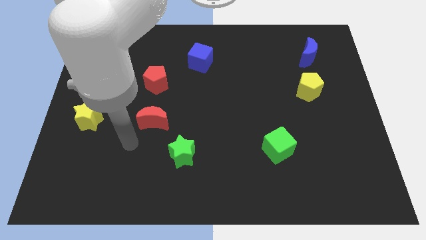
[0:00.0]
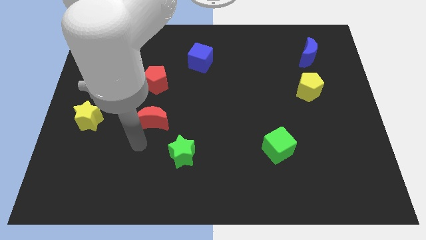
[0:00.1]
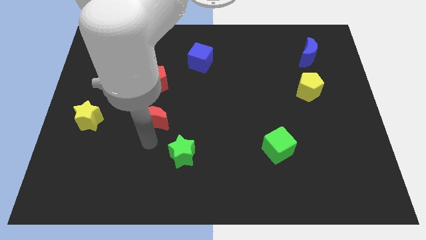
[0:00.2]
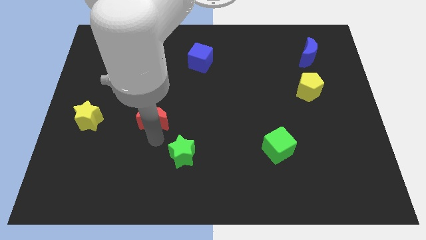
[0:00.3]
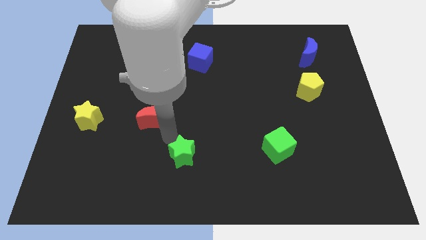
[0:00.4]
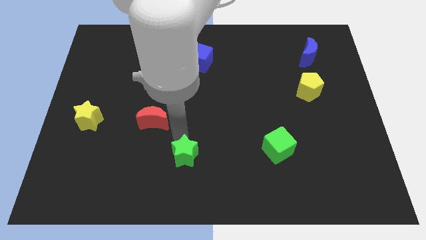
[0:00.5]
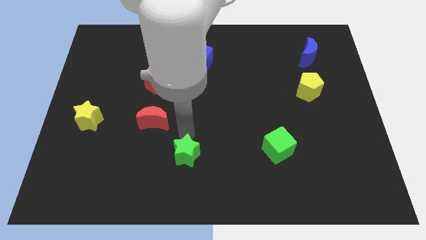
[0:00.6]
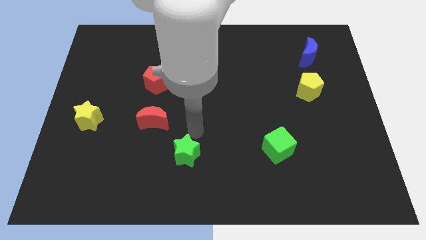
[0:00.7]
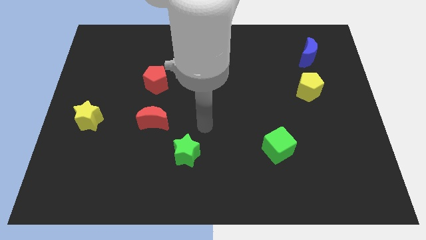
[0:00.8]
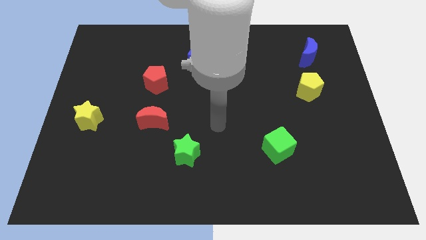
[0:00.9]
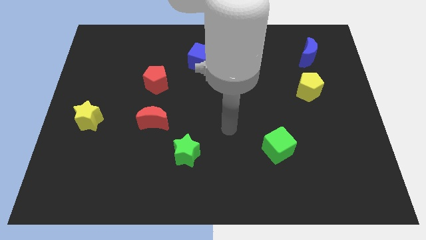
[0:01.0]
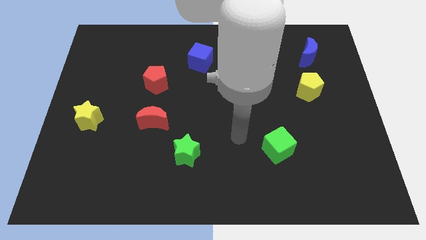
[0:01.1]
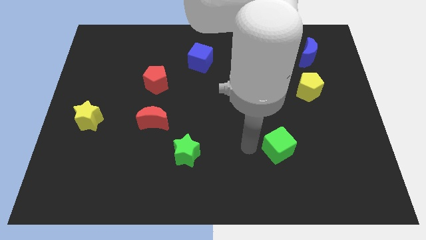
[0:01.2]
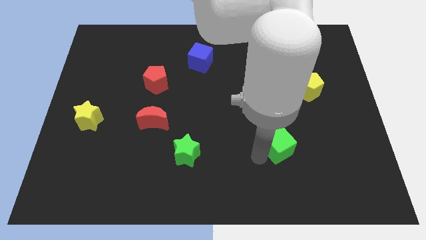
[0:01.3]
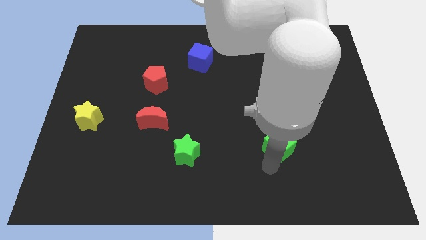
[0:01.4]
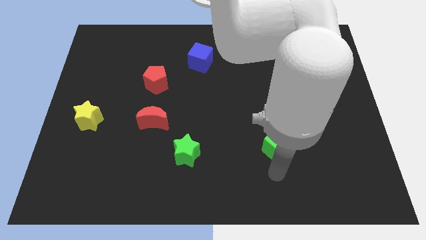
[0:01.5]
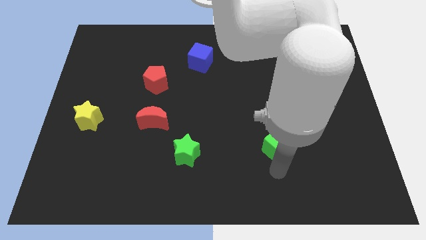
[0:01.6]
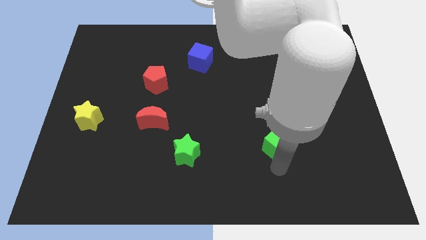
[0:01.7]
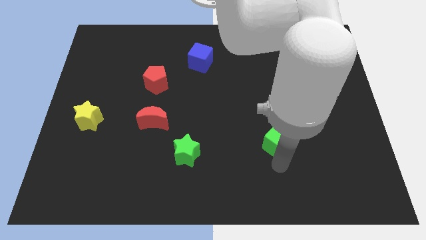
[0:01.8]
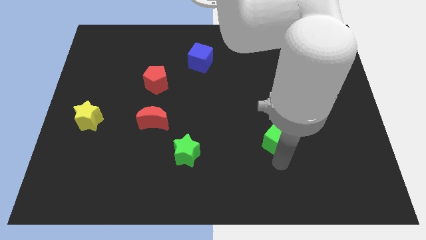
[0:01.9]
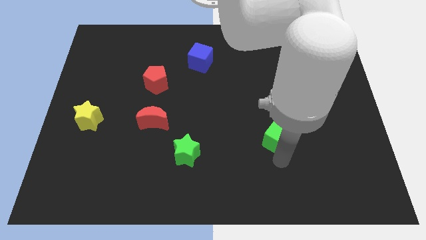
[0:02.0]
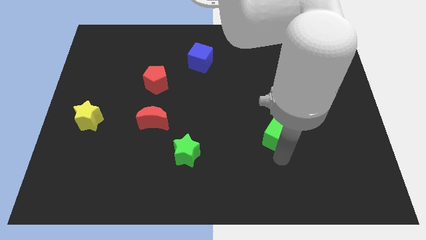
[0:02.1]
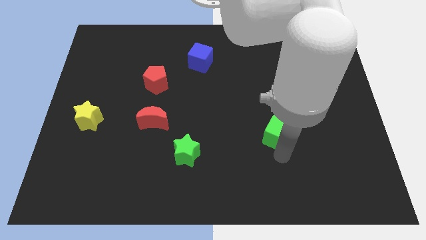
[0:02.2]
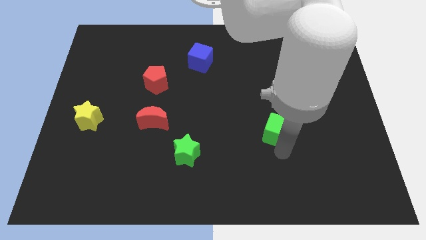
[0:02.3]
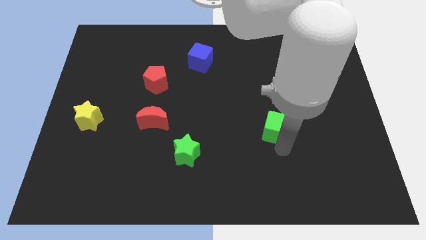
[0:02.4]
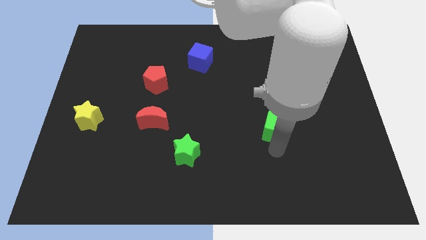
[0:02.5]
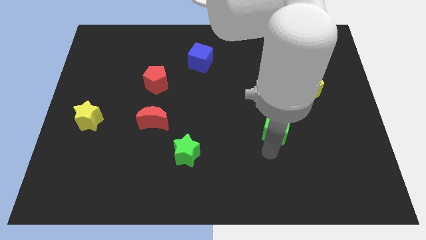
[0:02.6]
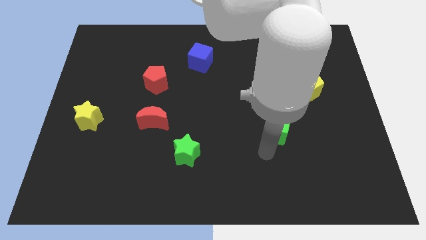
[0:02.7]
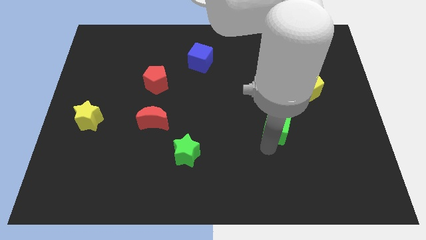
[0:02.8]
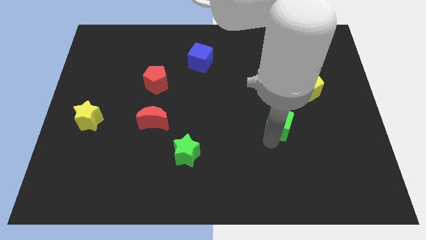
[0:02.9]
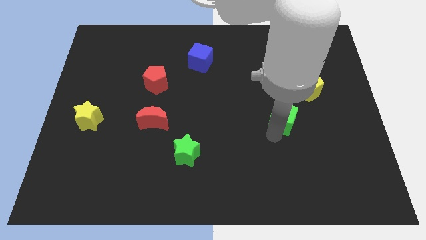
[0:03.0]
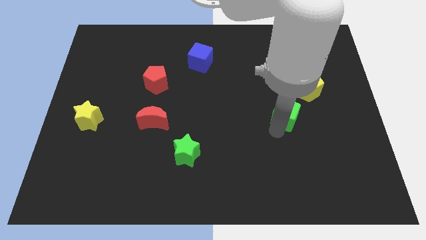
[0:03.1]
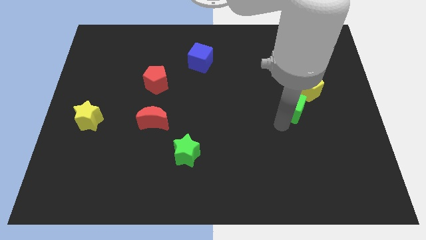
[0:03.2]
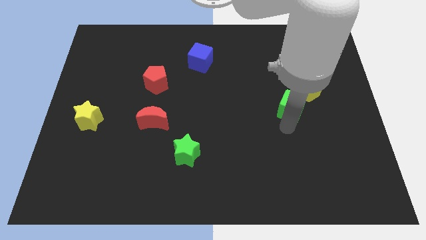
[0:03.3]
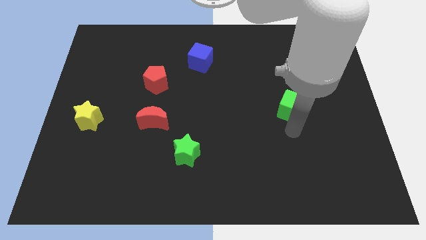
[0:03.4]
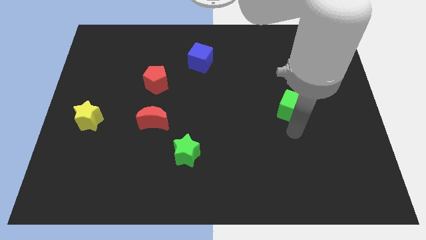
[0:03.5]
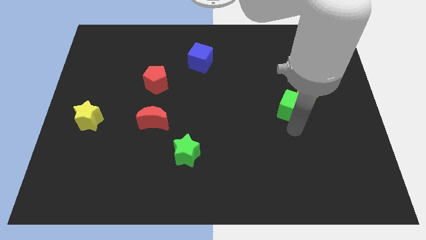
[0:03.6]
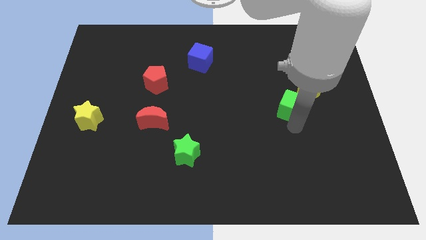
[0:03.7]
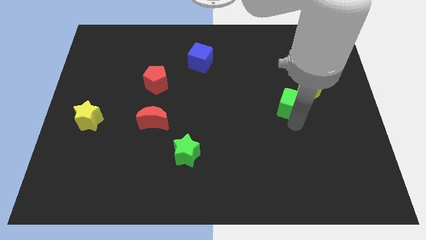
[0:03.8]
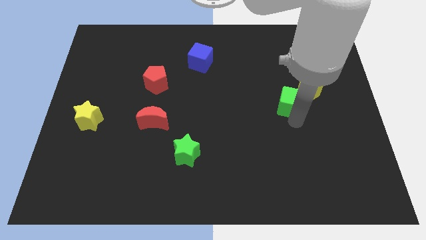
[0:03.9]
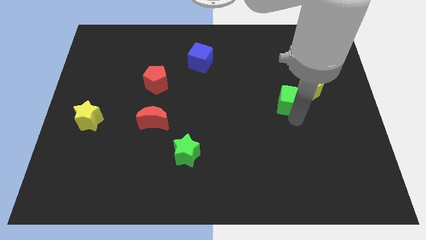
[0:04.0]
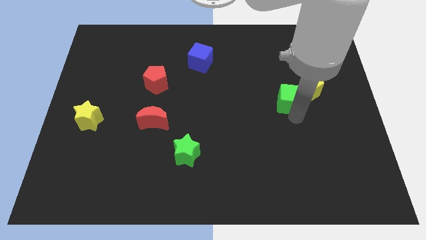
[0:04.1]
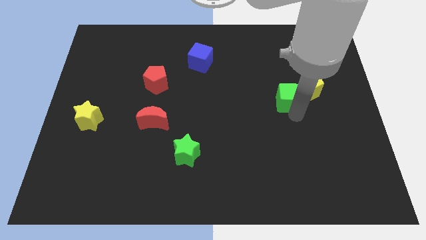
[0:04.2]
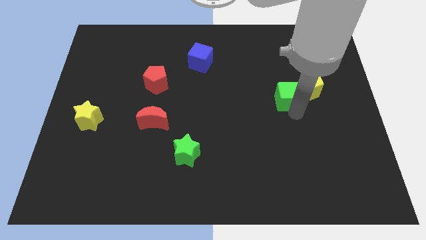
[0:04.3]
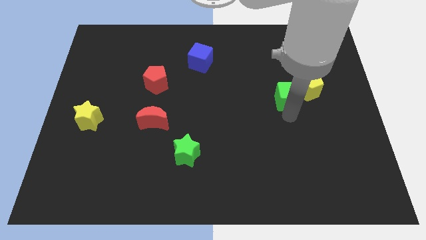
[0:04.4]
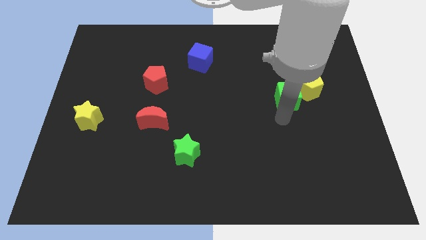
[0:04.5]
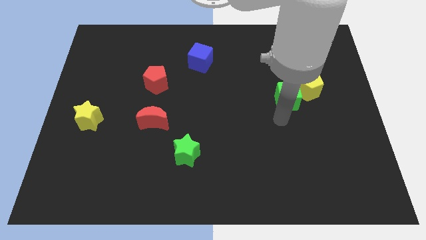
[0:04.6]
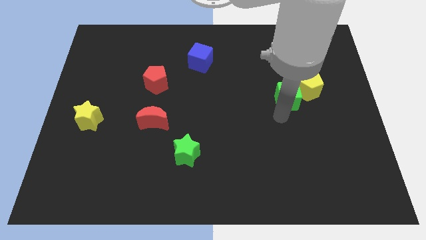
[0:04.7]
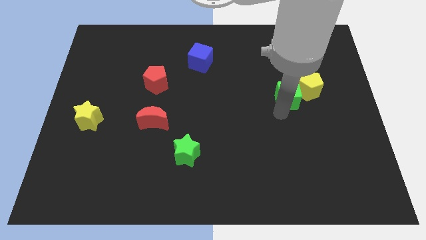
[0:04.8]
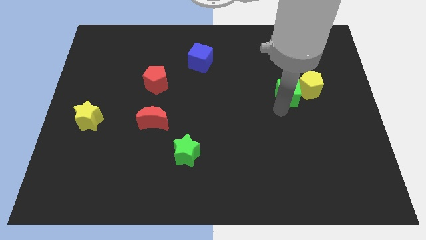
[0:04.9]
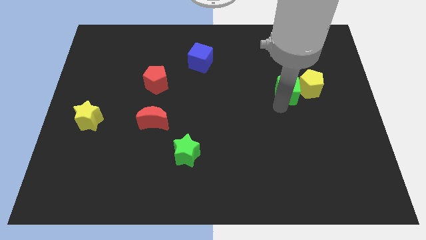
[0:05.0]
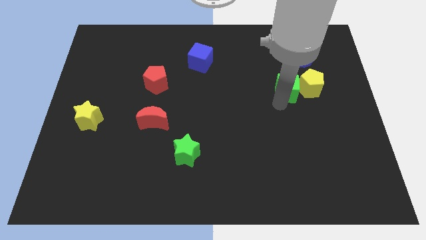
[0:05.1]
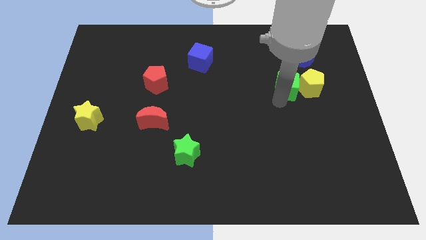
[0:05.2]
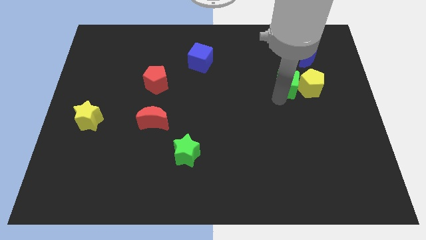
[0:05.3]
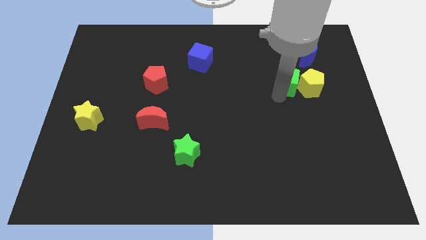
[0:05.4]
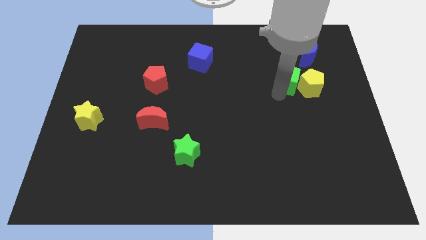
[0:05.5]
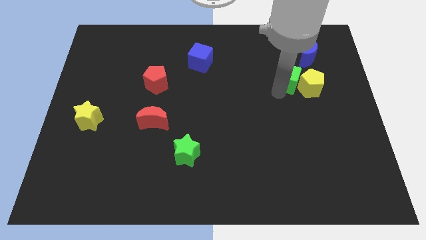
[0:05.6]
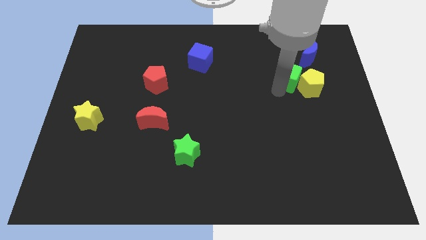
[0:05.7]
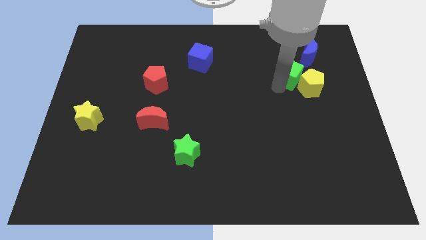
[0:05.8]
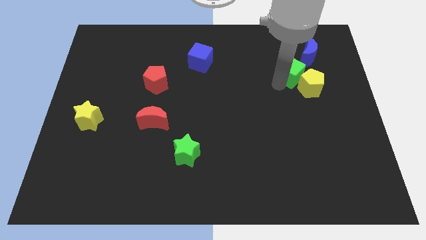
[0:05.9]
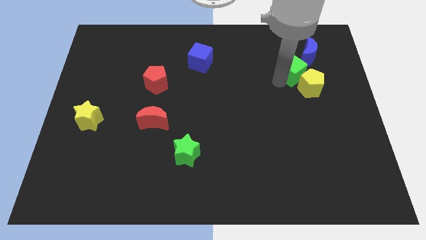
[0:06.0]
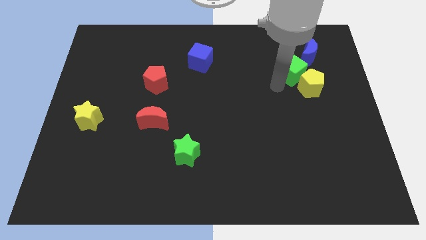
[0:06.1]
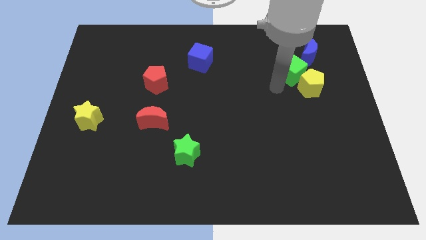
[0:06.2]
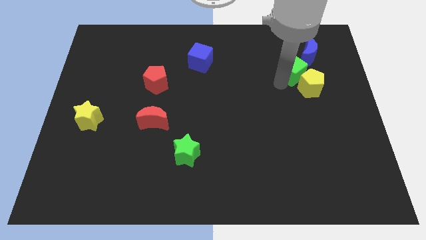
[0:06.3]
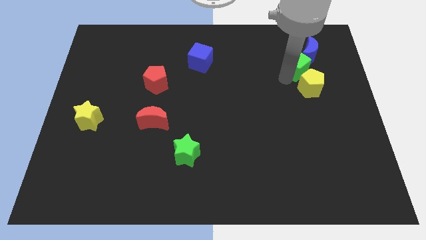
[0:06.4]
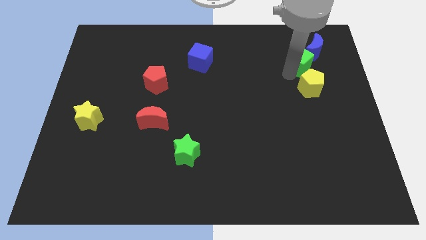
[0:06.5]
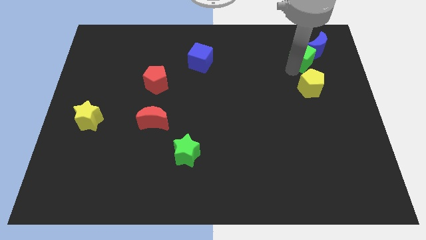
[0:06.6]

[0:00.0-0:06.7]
slide the green cube to the blue moon

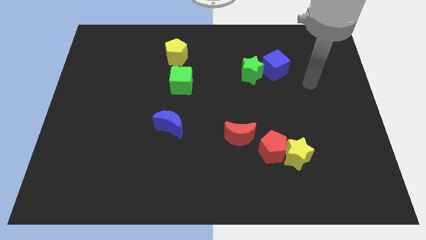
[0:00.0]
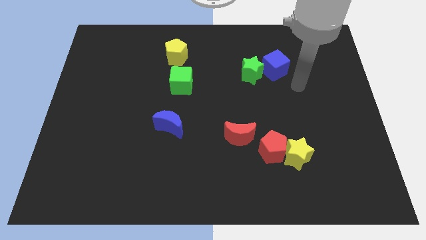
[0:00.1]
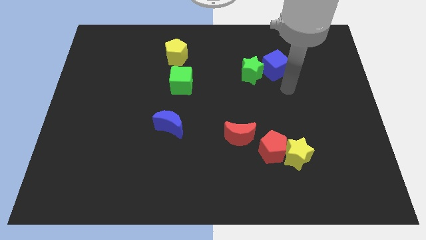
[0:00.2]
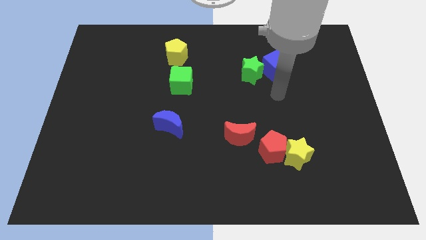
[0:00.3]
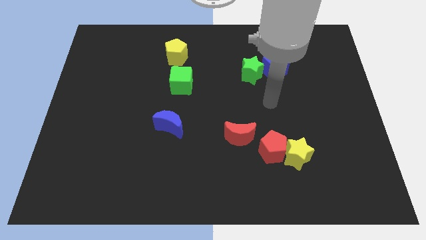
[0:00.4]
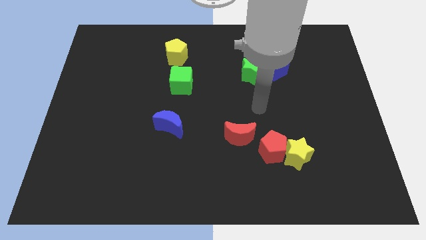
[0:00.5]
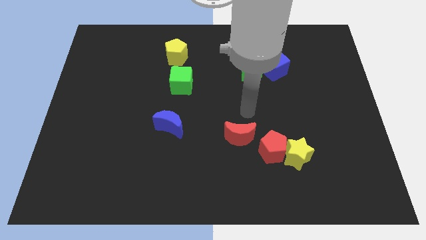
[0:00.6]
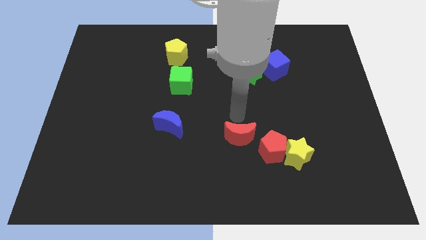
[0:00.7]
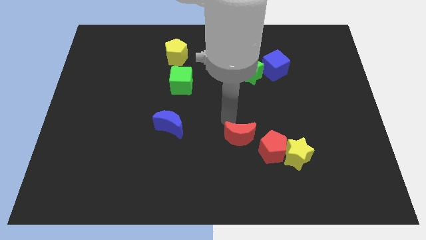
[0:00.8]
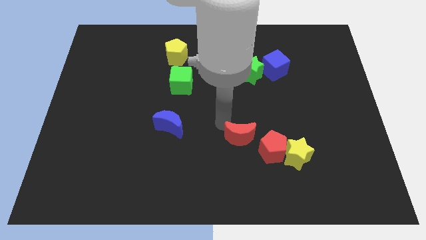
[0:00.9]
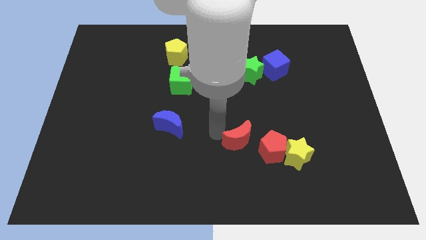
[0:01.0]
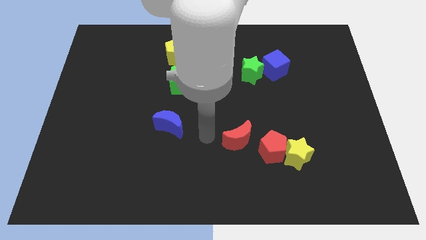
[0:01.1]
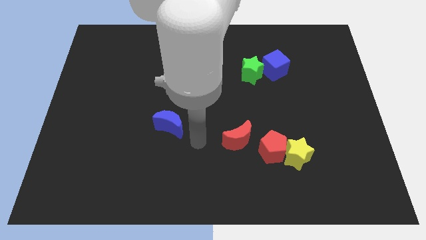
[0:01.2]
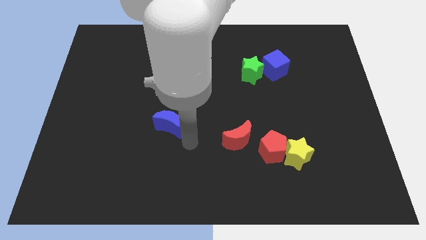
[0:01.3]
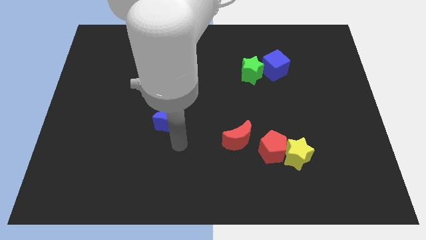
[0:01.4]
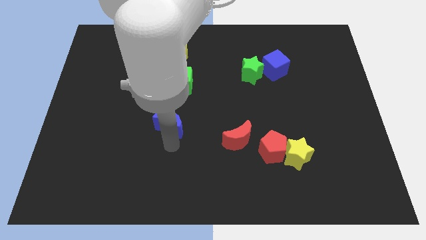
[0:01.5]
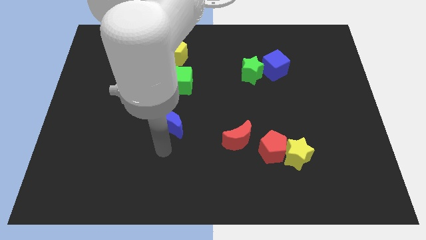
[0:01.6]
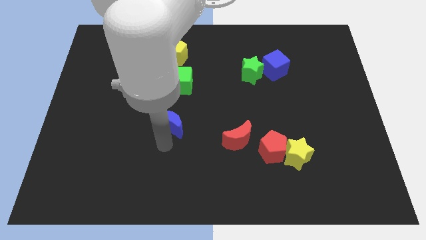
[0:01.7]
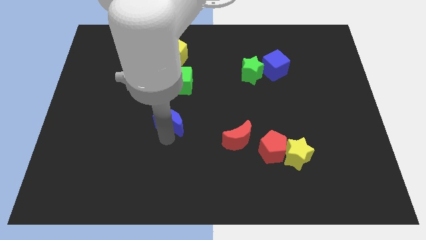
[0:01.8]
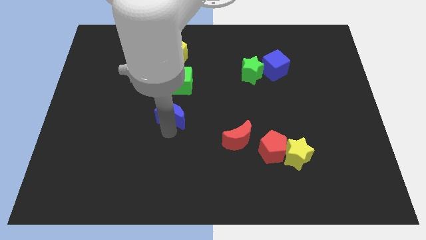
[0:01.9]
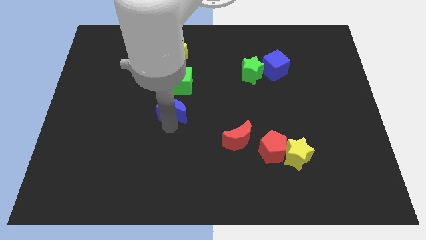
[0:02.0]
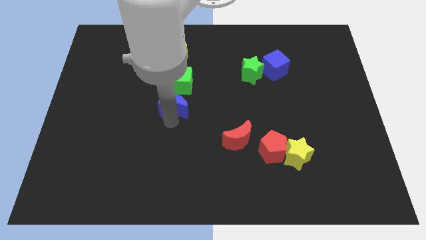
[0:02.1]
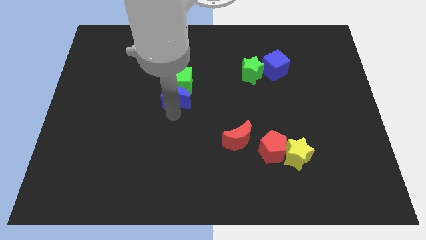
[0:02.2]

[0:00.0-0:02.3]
move the blue moon towards the green cube
